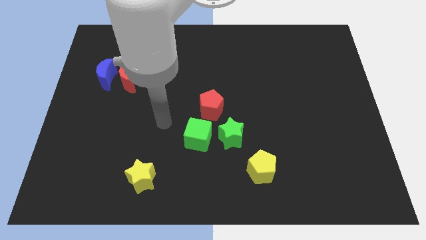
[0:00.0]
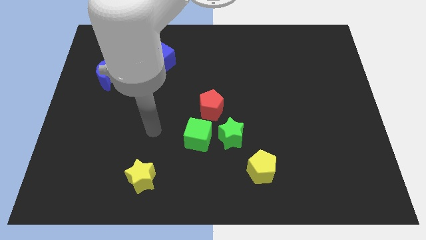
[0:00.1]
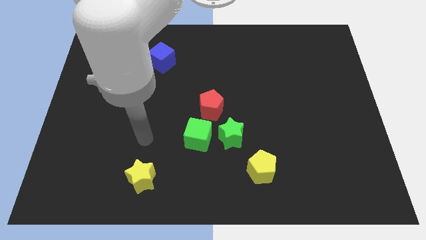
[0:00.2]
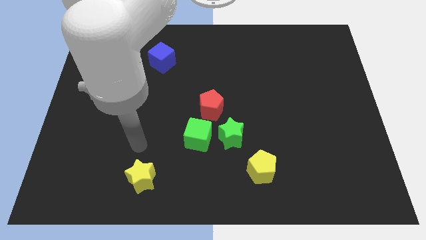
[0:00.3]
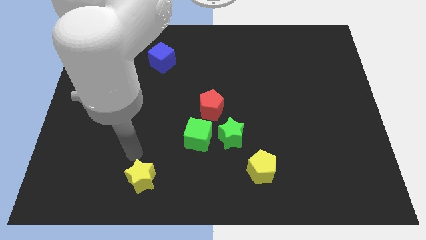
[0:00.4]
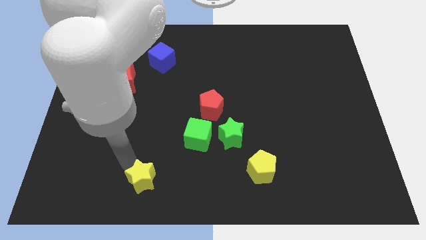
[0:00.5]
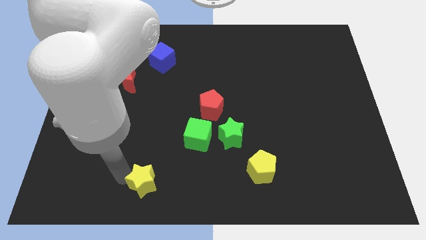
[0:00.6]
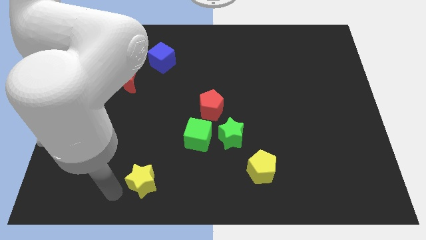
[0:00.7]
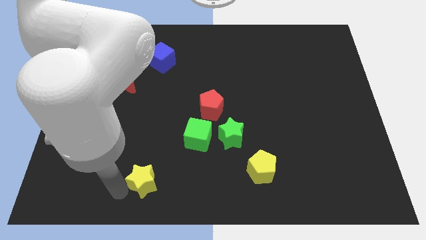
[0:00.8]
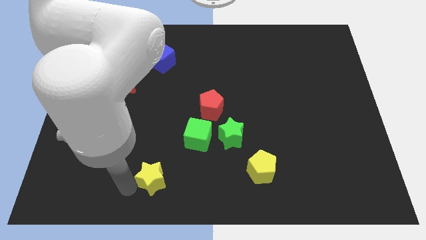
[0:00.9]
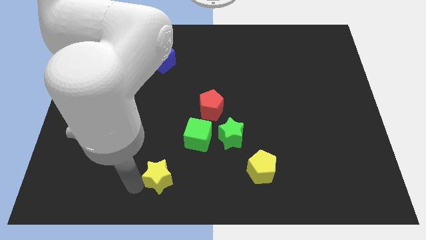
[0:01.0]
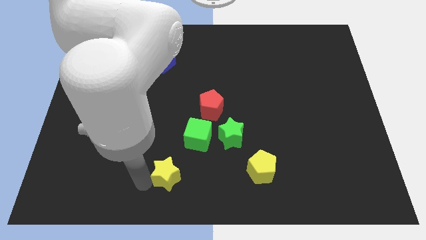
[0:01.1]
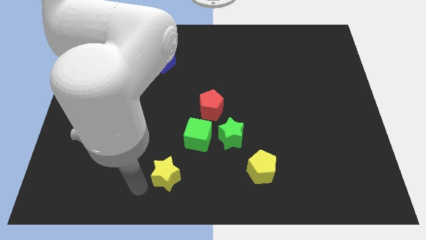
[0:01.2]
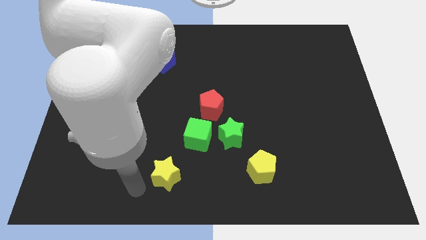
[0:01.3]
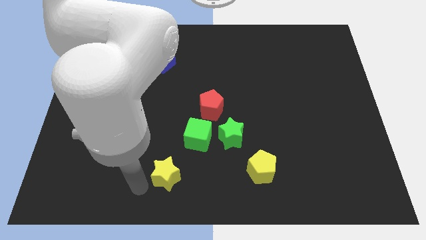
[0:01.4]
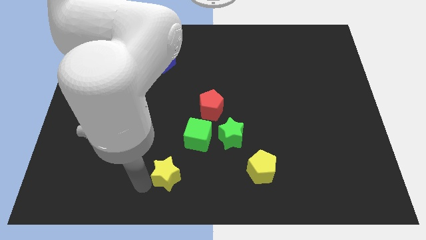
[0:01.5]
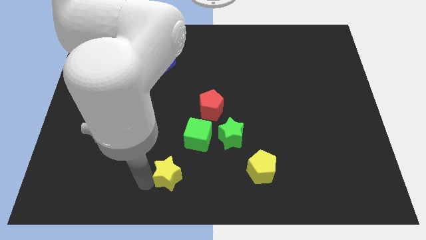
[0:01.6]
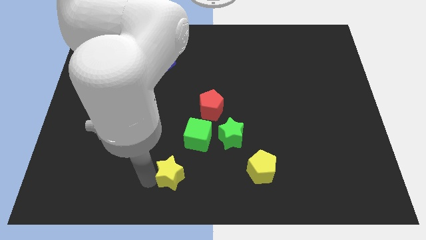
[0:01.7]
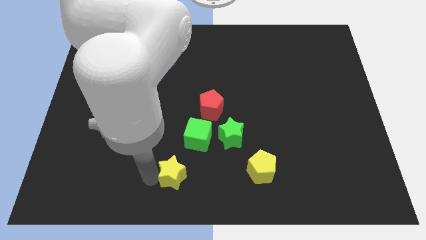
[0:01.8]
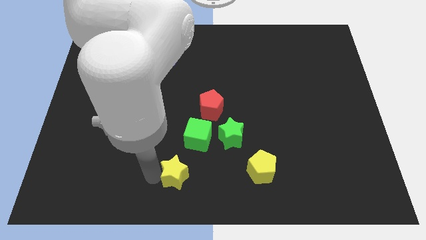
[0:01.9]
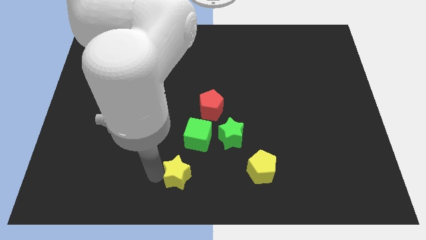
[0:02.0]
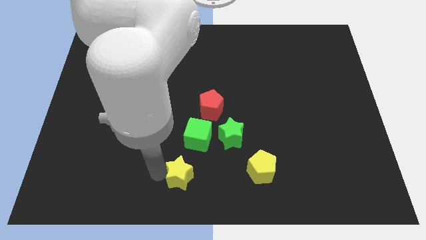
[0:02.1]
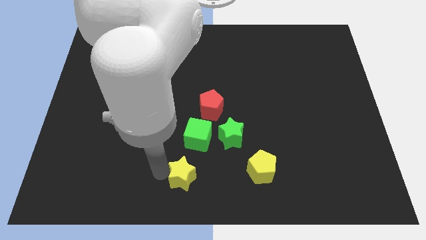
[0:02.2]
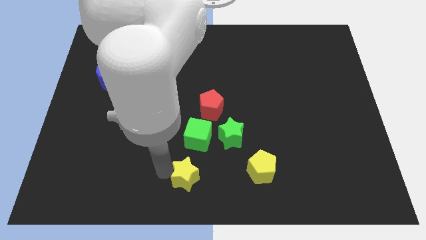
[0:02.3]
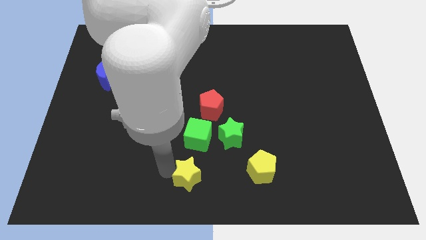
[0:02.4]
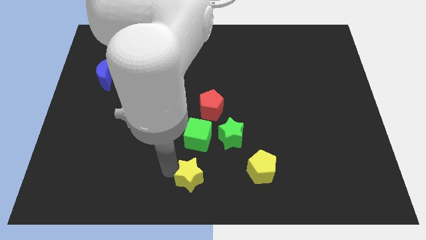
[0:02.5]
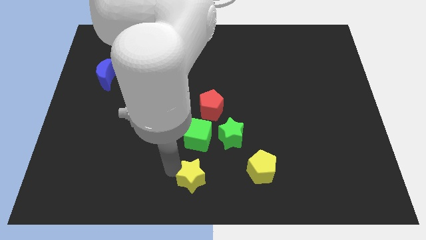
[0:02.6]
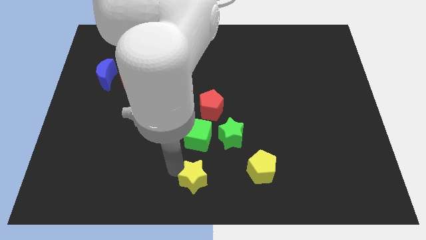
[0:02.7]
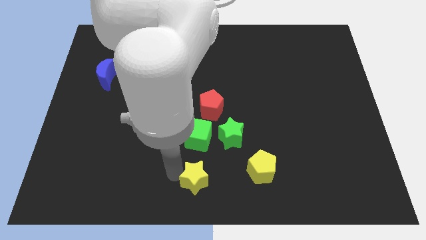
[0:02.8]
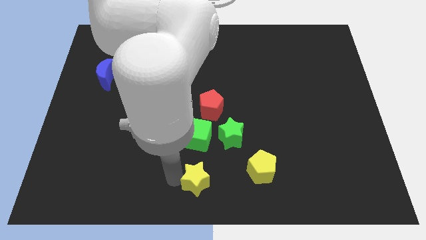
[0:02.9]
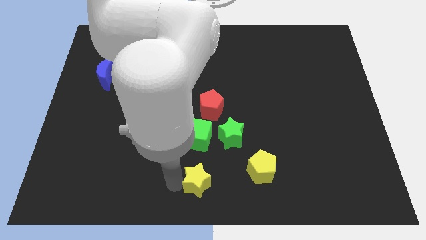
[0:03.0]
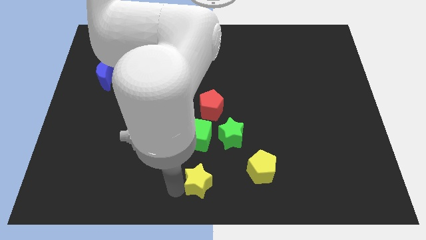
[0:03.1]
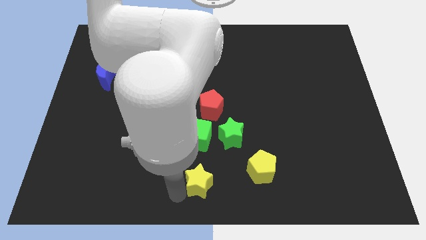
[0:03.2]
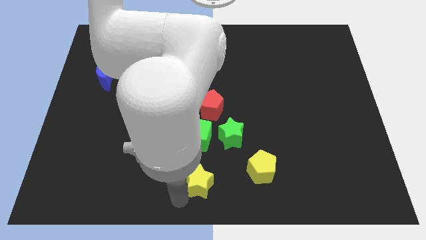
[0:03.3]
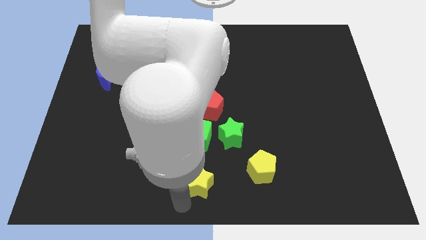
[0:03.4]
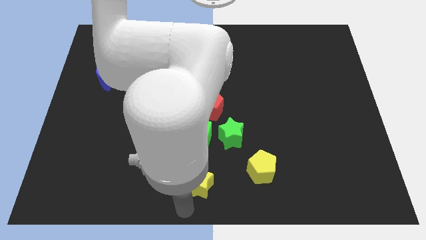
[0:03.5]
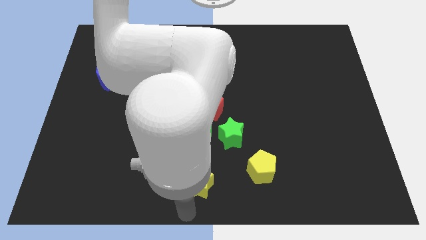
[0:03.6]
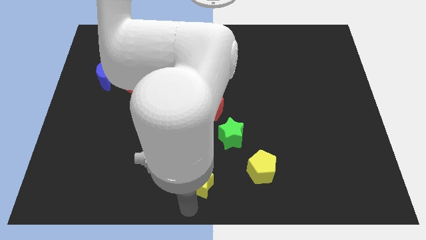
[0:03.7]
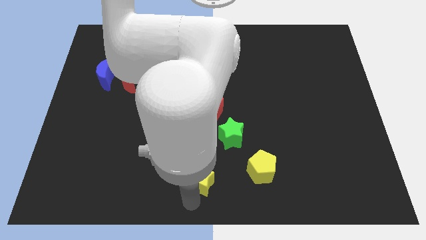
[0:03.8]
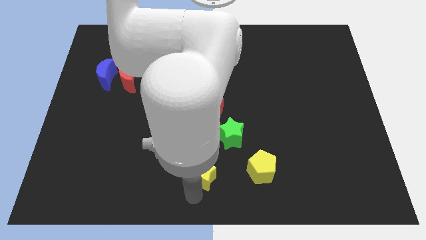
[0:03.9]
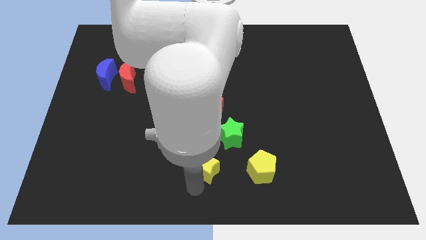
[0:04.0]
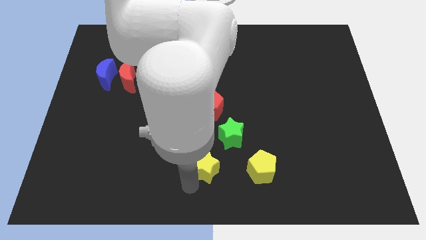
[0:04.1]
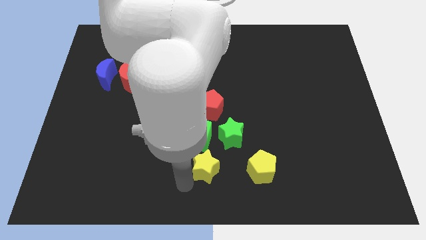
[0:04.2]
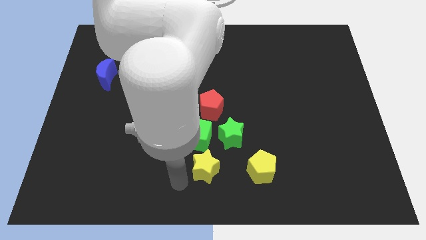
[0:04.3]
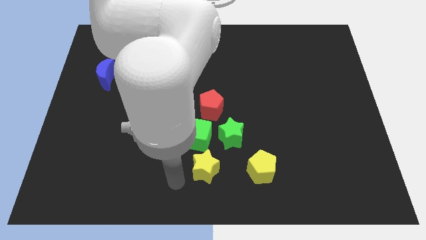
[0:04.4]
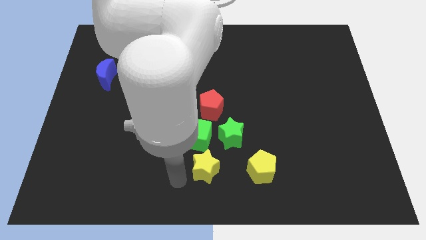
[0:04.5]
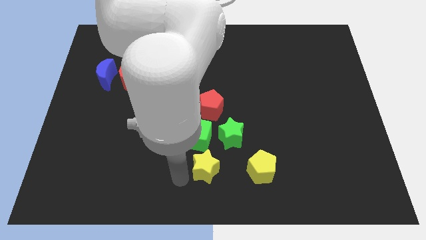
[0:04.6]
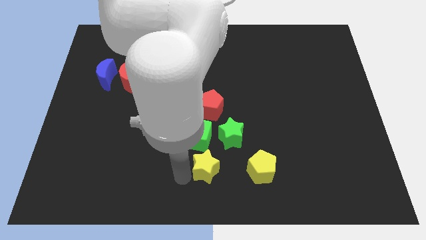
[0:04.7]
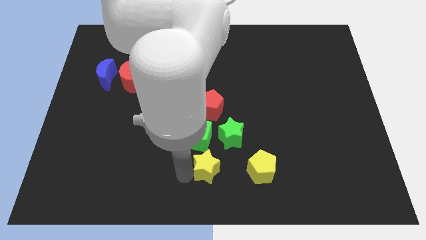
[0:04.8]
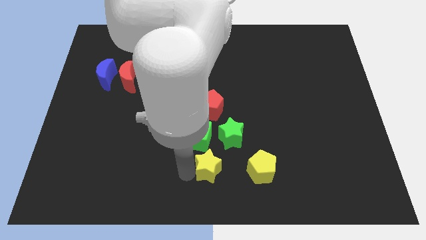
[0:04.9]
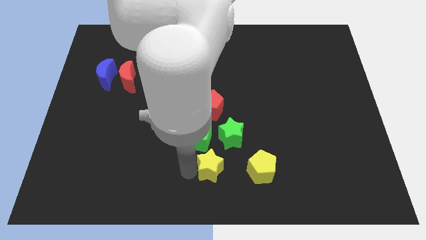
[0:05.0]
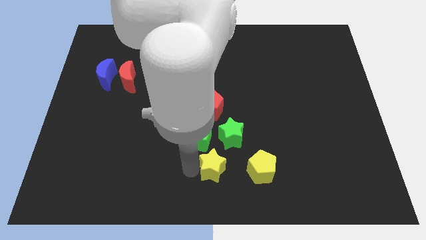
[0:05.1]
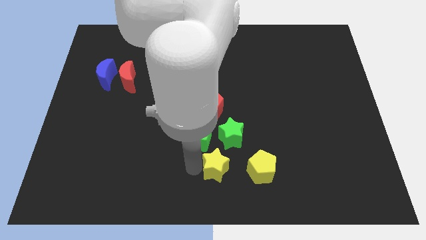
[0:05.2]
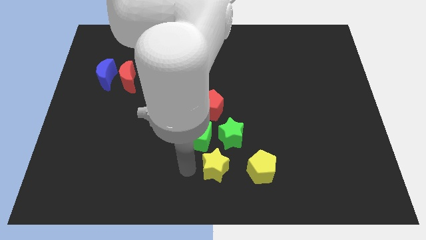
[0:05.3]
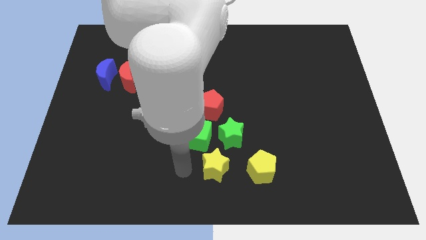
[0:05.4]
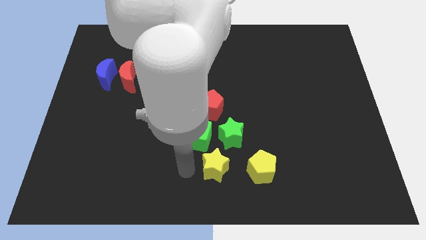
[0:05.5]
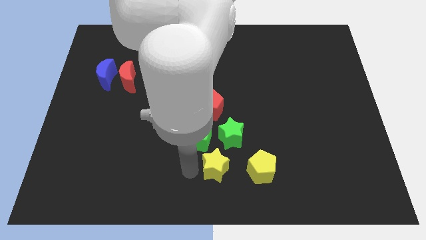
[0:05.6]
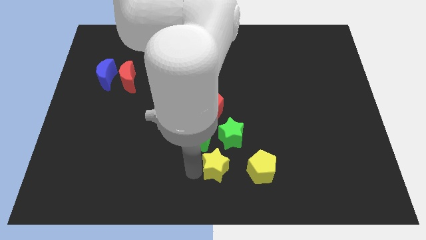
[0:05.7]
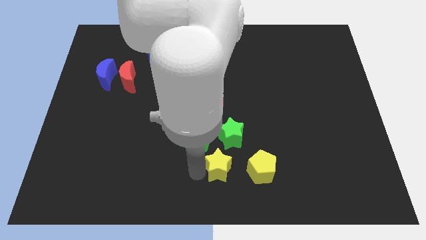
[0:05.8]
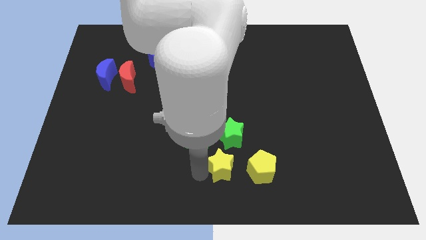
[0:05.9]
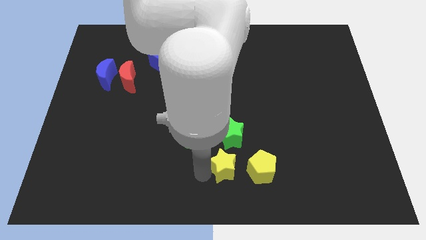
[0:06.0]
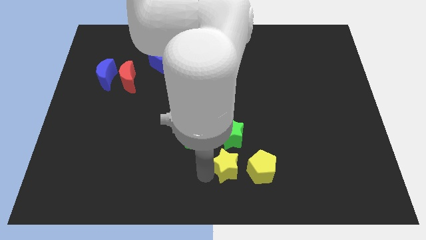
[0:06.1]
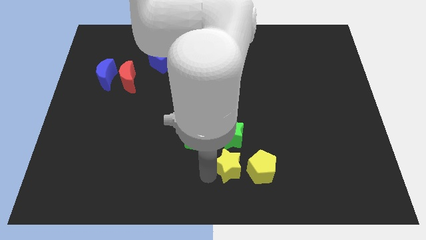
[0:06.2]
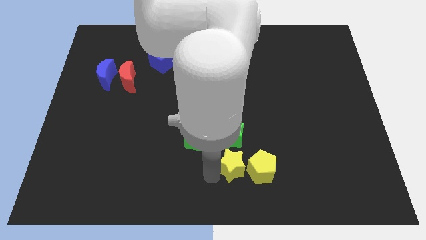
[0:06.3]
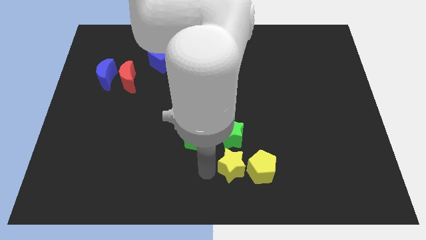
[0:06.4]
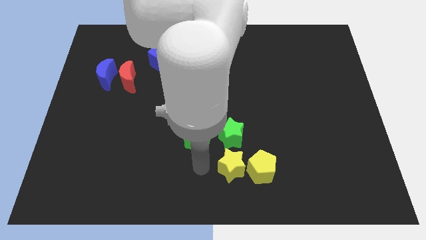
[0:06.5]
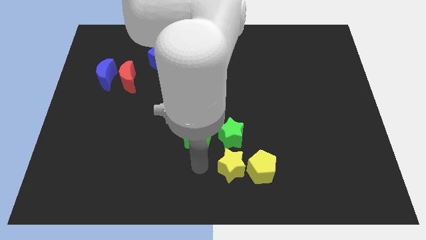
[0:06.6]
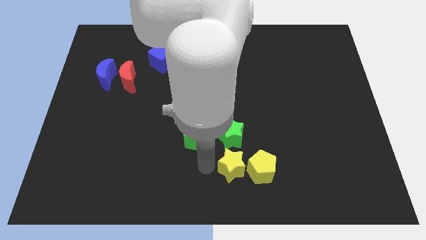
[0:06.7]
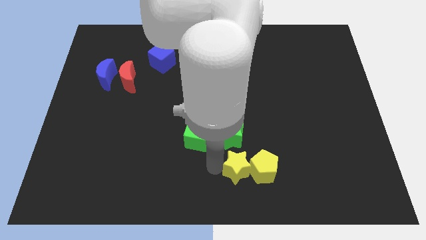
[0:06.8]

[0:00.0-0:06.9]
slide the yellow star close to the yellow pentagon
